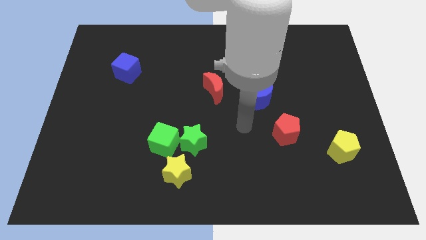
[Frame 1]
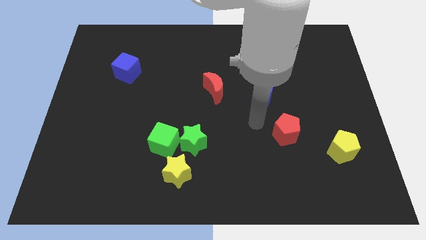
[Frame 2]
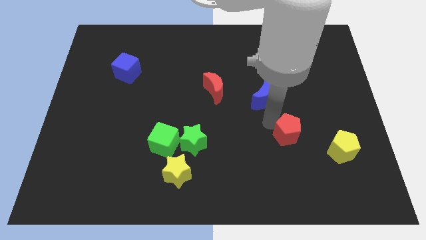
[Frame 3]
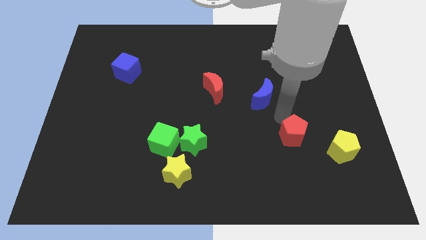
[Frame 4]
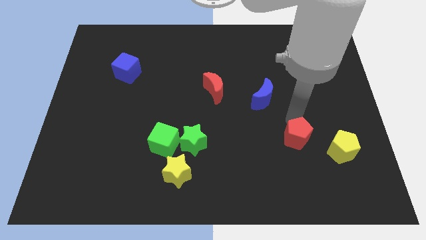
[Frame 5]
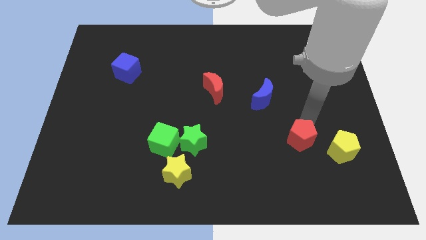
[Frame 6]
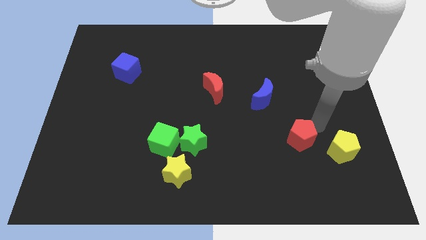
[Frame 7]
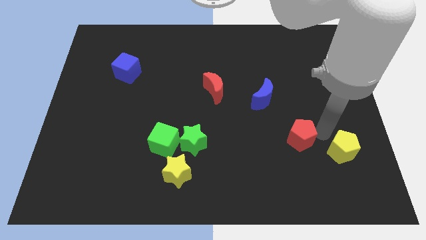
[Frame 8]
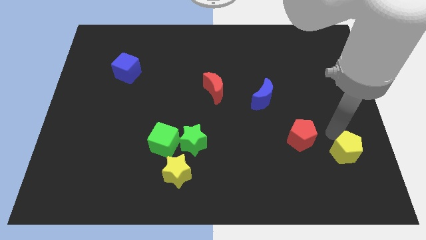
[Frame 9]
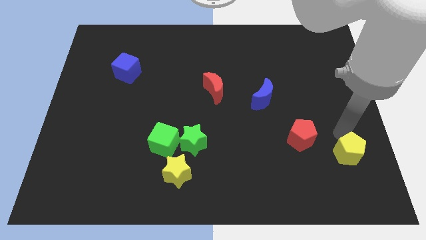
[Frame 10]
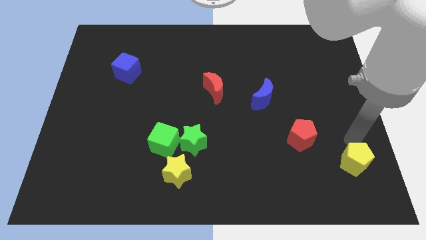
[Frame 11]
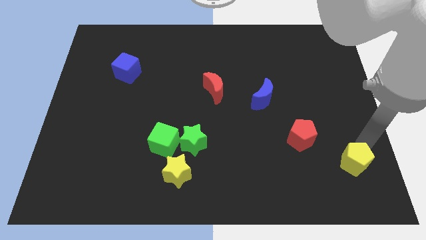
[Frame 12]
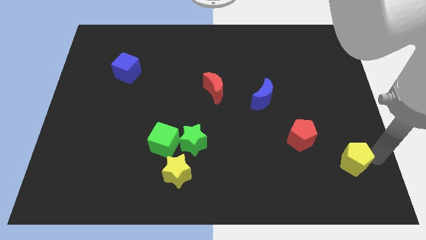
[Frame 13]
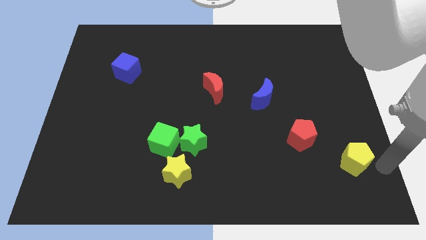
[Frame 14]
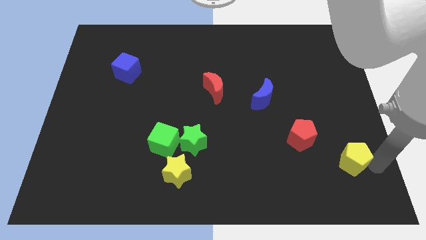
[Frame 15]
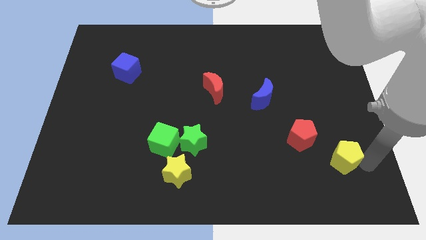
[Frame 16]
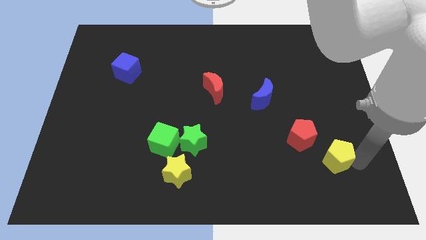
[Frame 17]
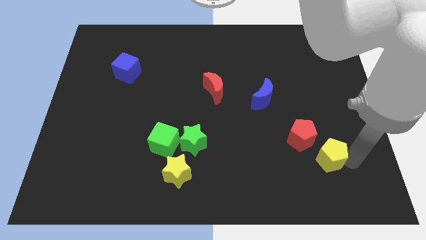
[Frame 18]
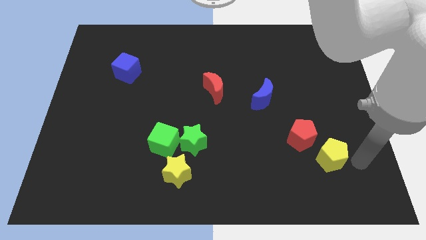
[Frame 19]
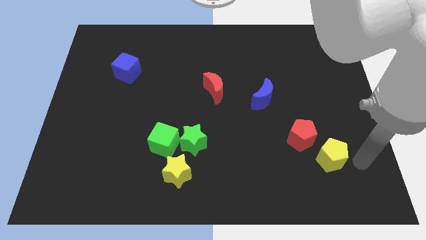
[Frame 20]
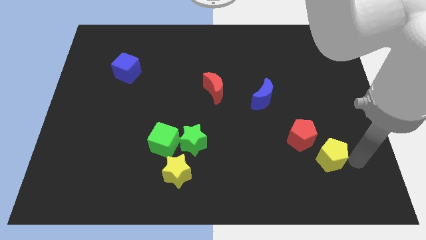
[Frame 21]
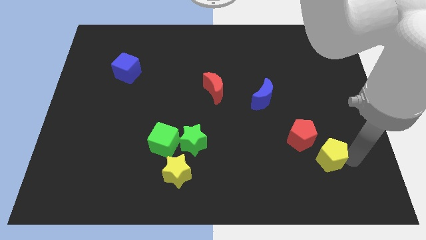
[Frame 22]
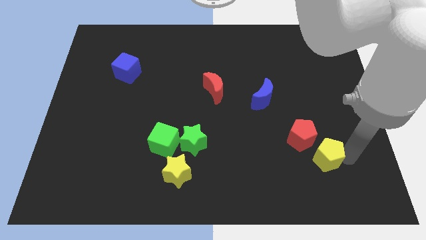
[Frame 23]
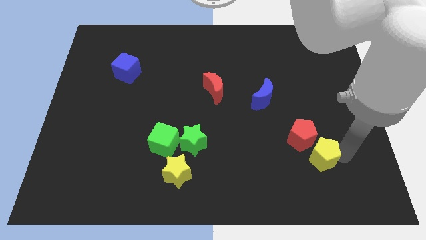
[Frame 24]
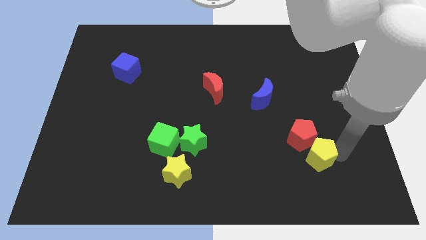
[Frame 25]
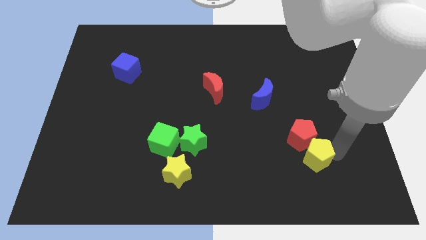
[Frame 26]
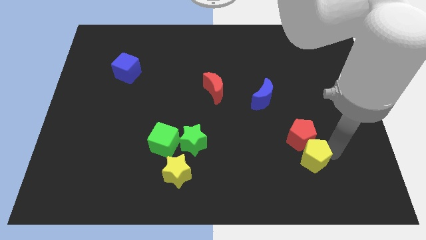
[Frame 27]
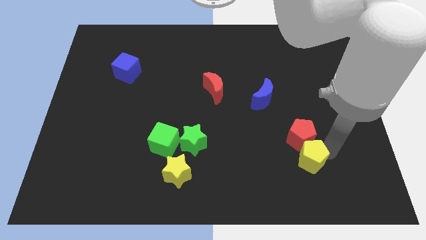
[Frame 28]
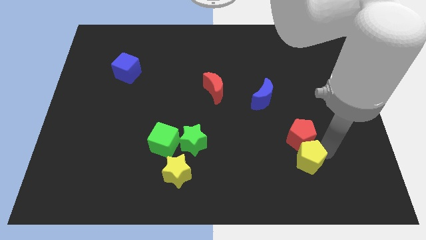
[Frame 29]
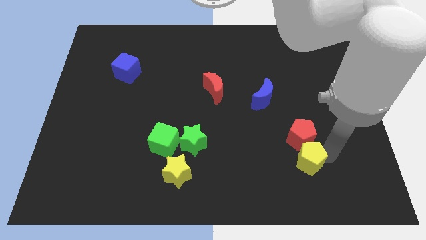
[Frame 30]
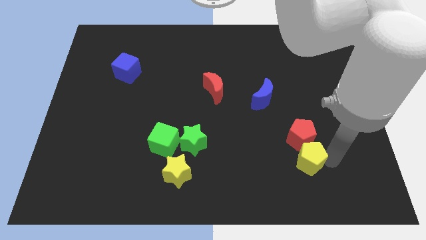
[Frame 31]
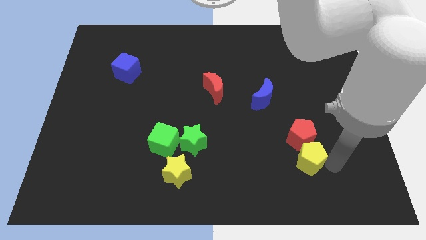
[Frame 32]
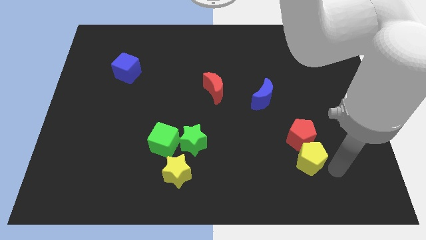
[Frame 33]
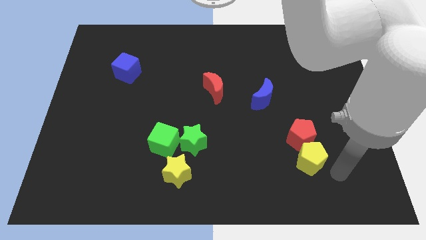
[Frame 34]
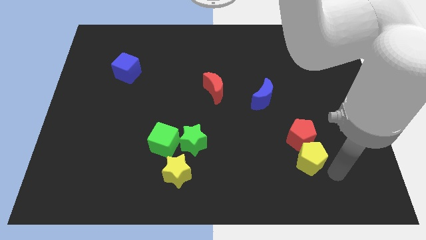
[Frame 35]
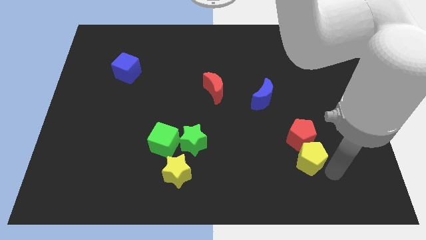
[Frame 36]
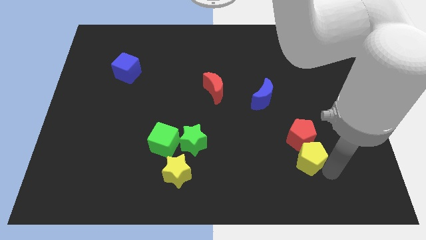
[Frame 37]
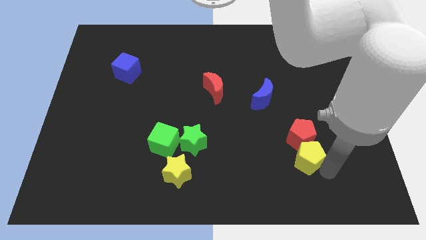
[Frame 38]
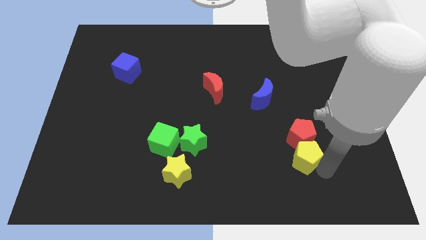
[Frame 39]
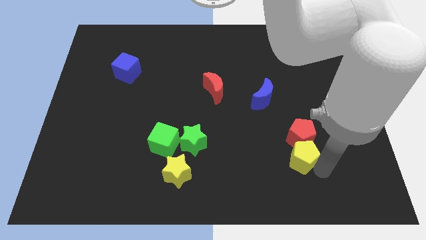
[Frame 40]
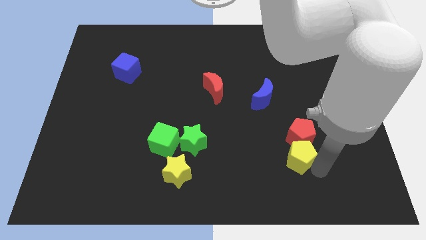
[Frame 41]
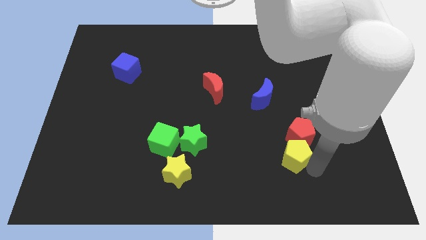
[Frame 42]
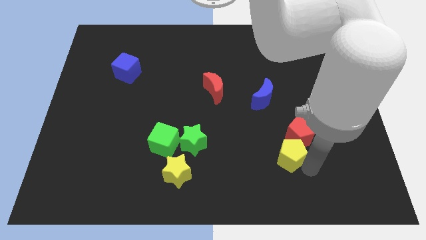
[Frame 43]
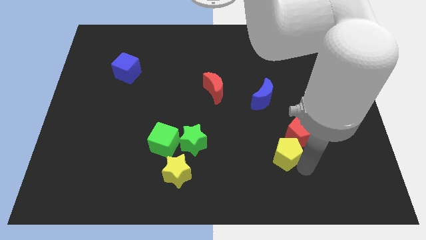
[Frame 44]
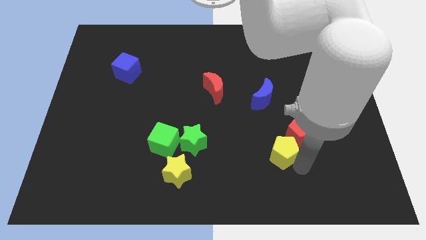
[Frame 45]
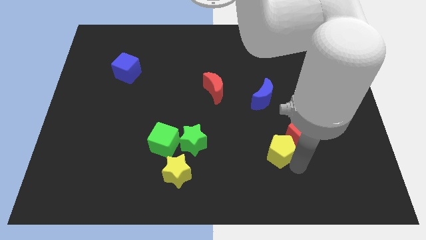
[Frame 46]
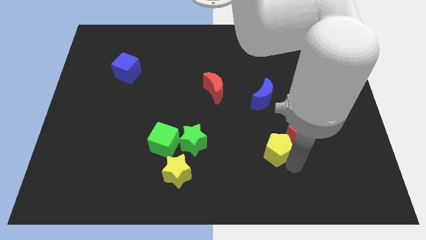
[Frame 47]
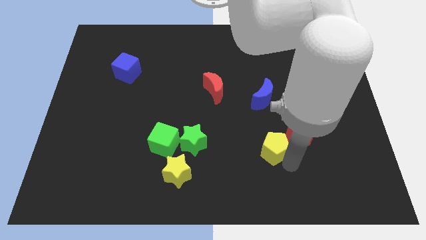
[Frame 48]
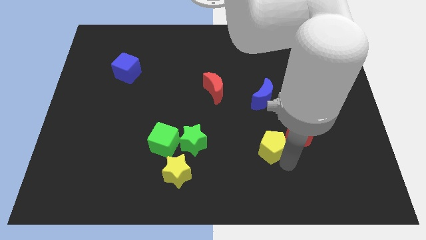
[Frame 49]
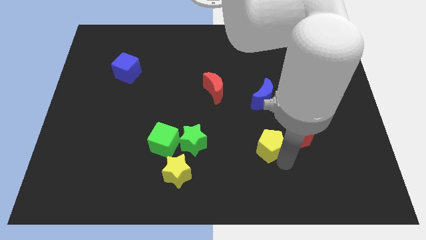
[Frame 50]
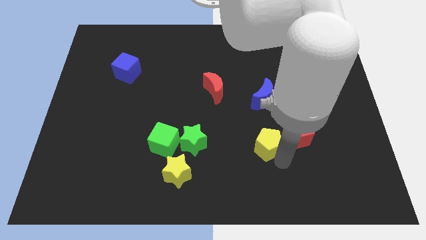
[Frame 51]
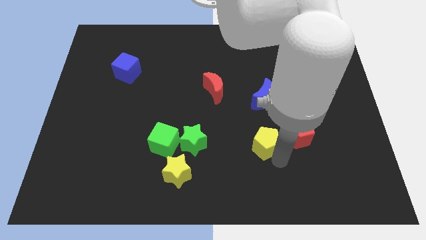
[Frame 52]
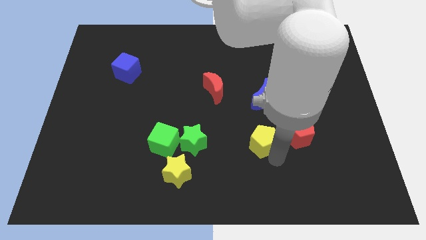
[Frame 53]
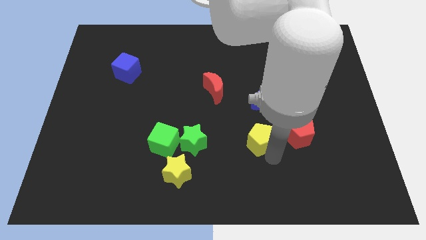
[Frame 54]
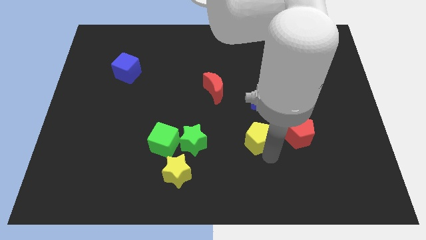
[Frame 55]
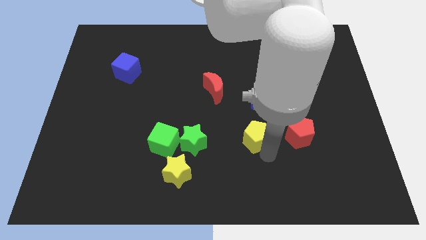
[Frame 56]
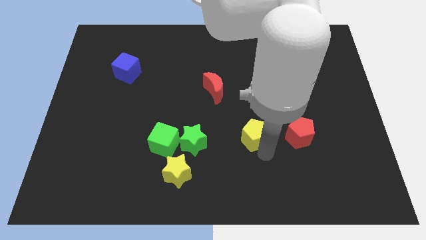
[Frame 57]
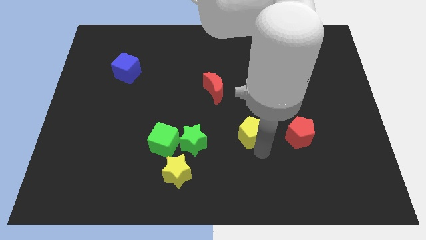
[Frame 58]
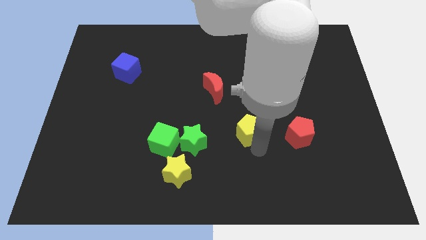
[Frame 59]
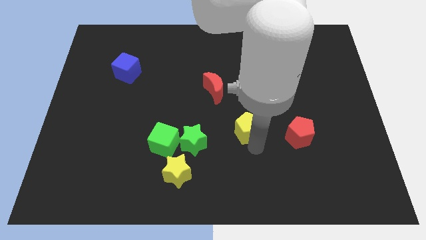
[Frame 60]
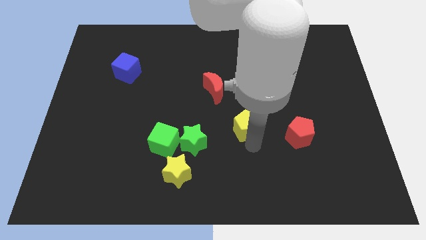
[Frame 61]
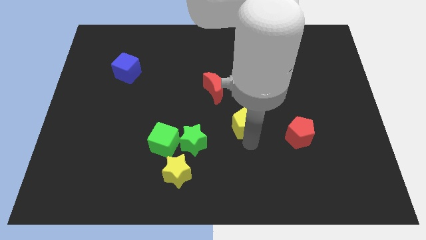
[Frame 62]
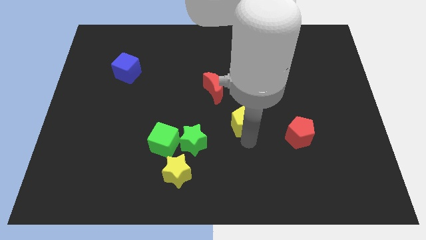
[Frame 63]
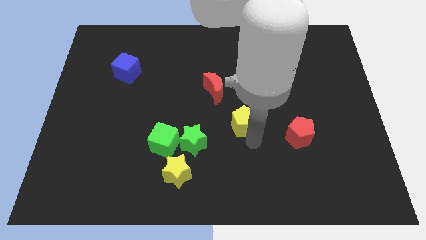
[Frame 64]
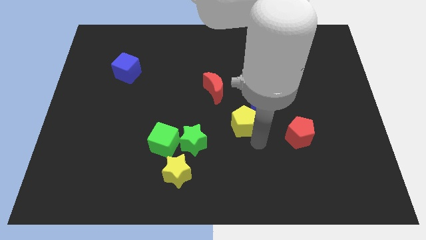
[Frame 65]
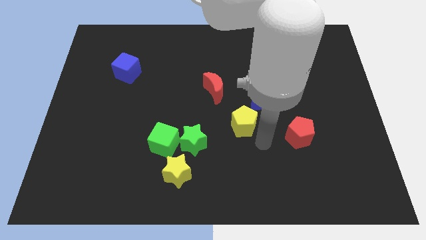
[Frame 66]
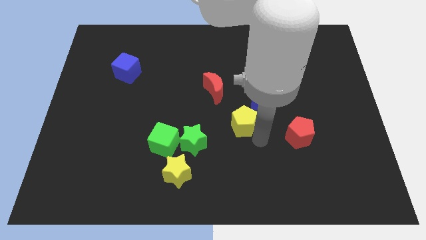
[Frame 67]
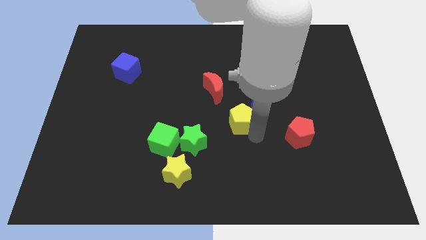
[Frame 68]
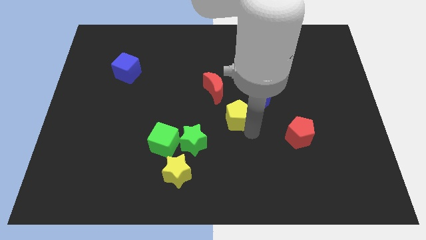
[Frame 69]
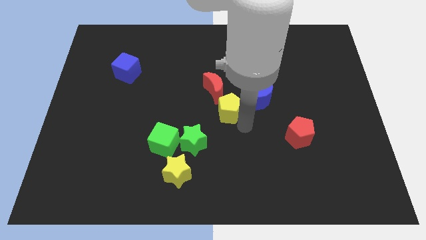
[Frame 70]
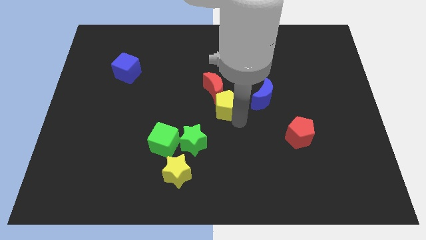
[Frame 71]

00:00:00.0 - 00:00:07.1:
push the yellow pentagon next to the red moon
